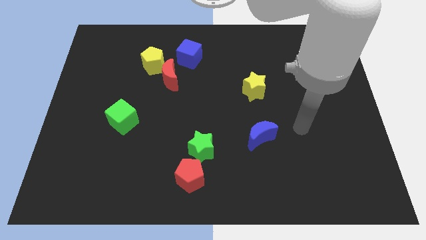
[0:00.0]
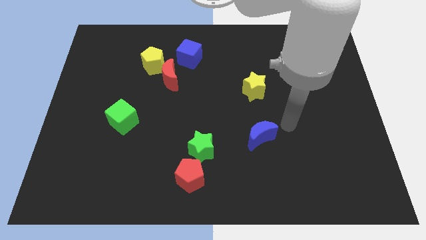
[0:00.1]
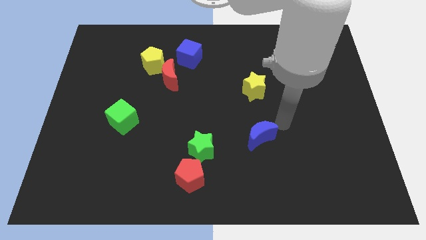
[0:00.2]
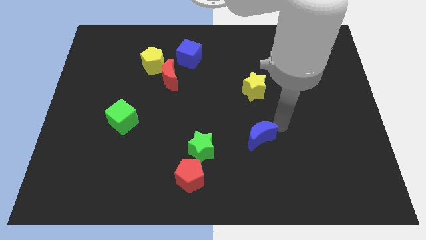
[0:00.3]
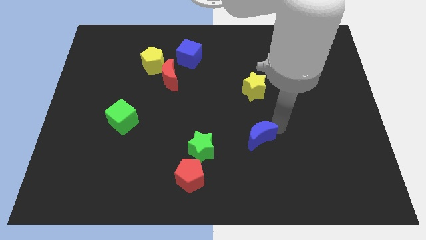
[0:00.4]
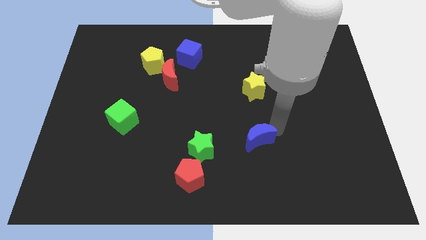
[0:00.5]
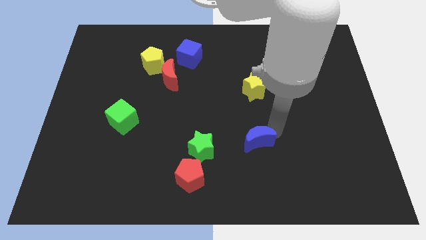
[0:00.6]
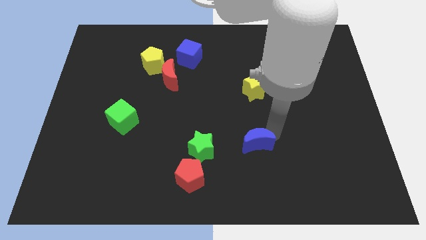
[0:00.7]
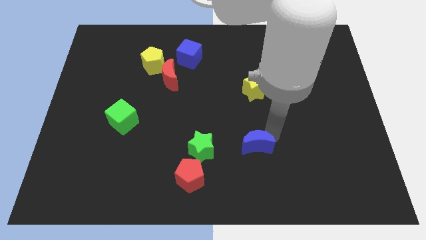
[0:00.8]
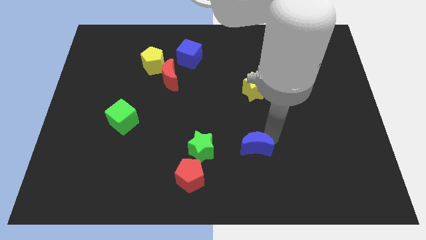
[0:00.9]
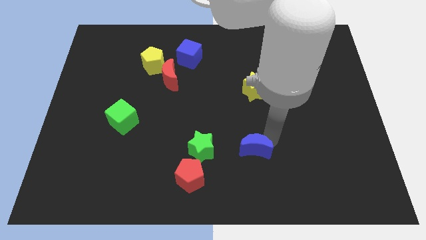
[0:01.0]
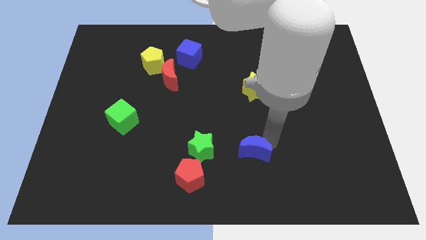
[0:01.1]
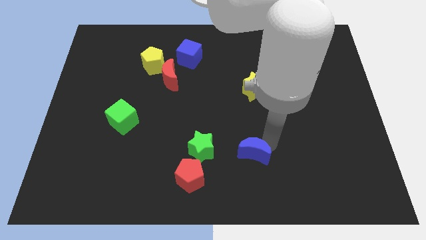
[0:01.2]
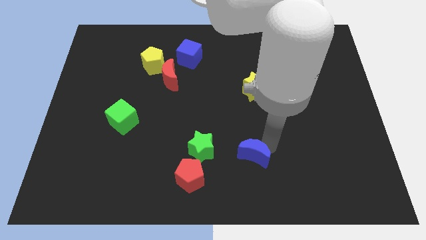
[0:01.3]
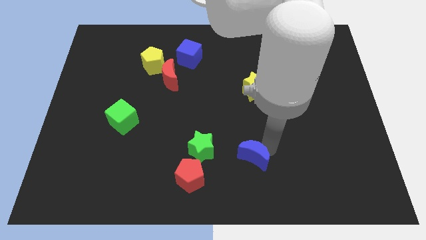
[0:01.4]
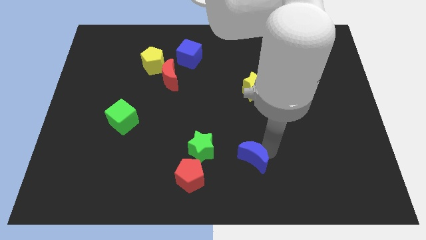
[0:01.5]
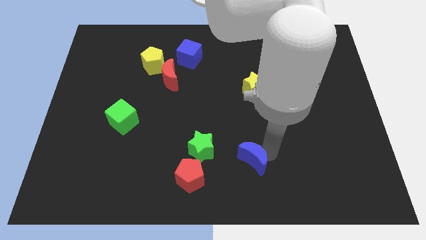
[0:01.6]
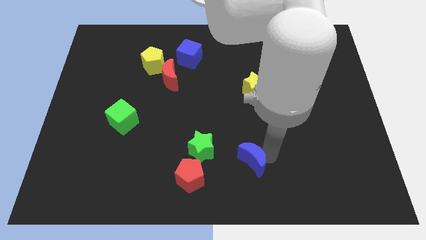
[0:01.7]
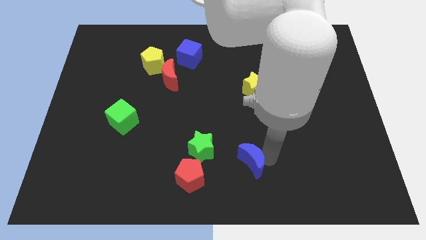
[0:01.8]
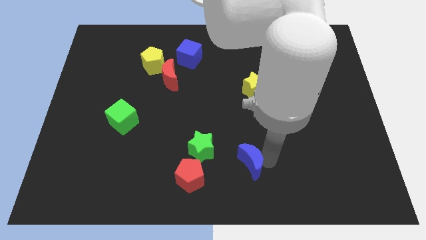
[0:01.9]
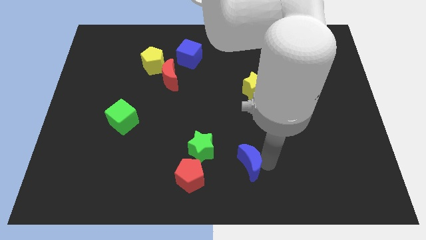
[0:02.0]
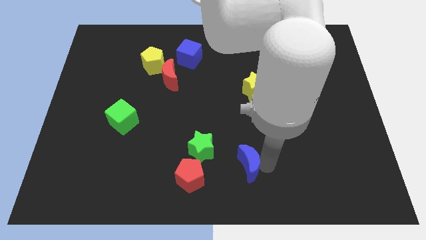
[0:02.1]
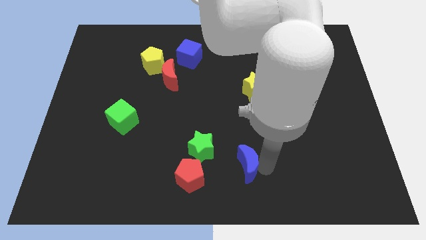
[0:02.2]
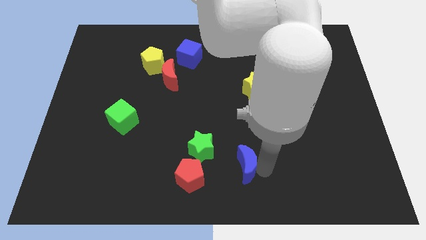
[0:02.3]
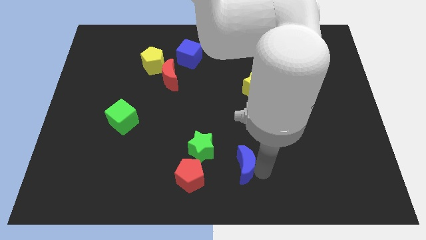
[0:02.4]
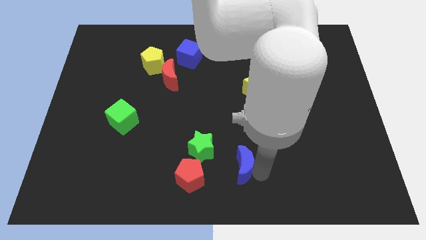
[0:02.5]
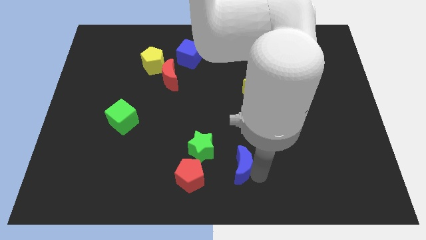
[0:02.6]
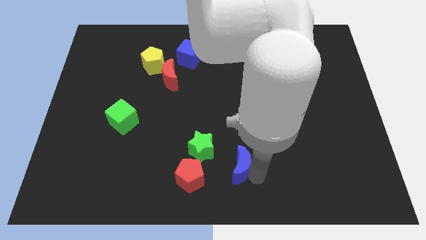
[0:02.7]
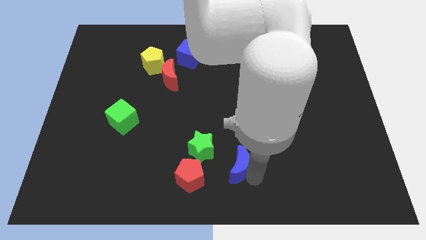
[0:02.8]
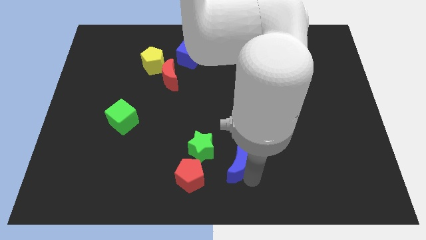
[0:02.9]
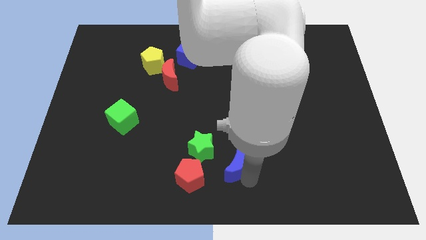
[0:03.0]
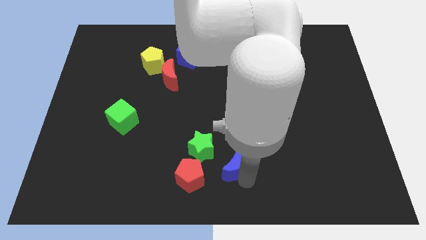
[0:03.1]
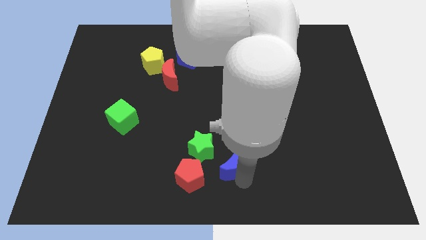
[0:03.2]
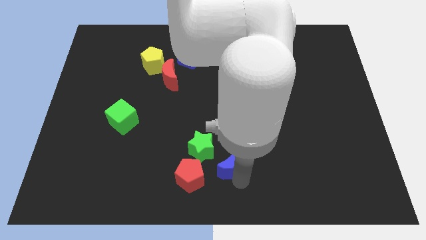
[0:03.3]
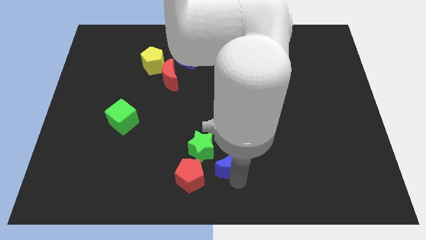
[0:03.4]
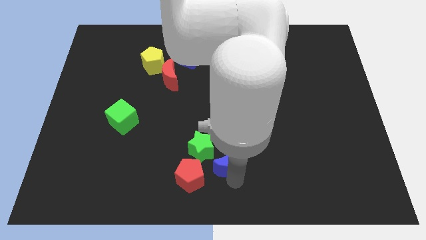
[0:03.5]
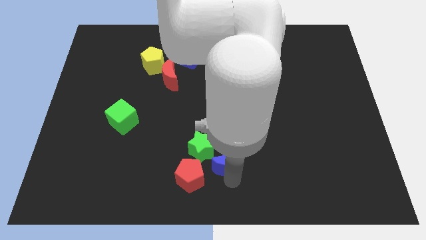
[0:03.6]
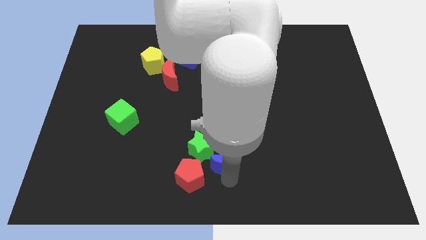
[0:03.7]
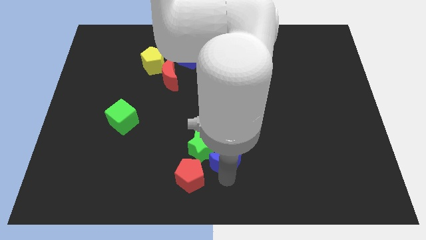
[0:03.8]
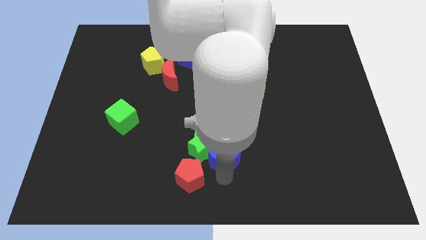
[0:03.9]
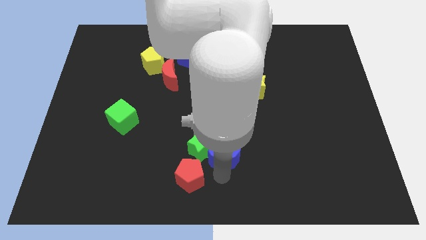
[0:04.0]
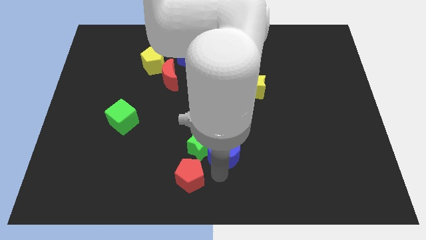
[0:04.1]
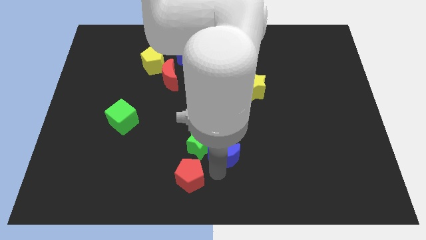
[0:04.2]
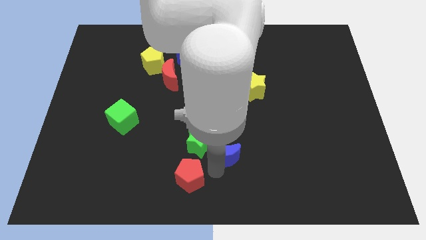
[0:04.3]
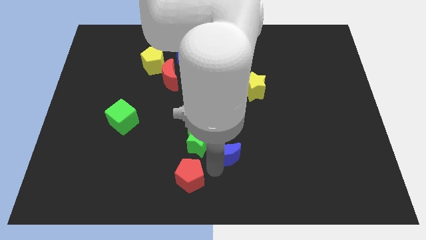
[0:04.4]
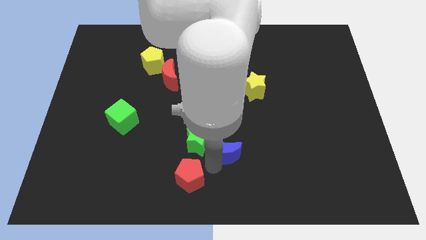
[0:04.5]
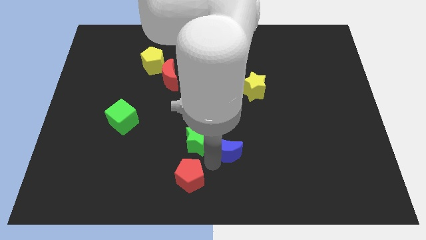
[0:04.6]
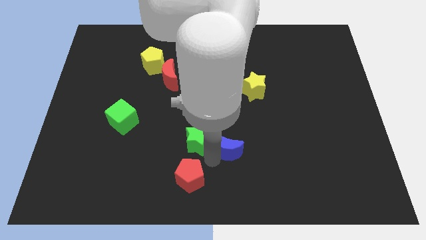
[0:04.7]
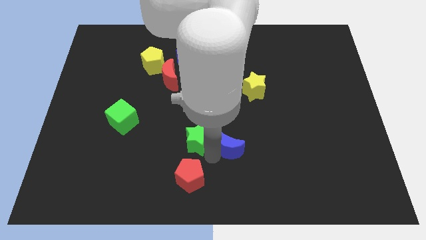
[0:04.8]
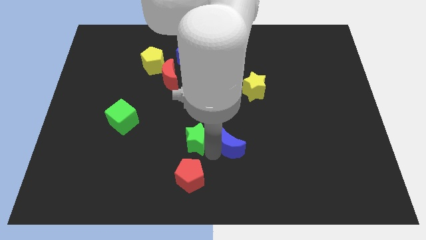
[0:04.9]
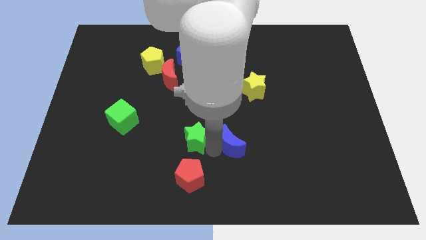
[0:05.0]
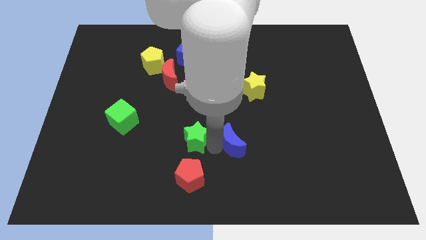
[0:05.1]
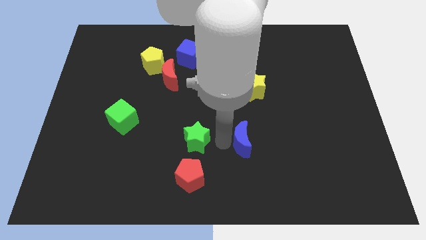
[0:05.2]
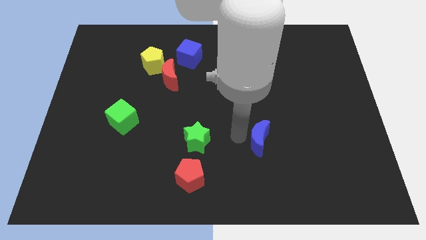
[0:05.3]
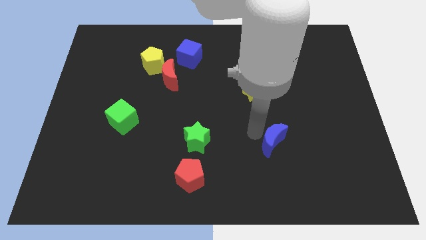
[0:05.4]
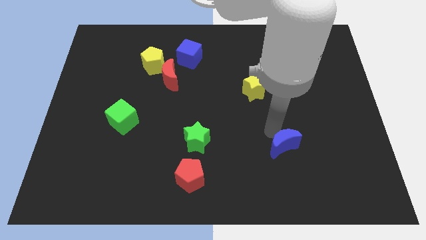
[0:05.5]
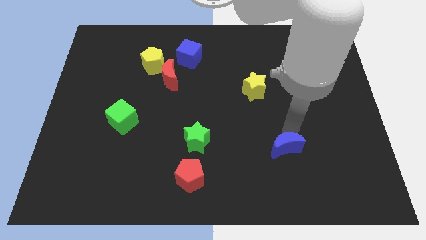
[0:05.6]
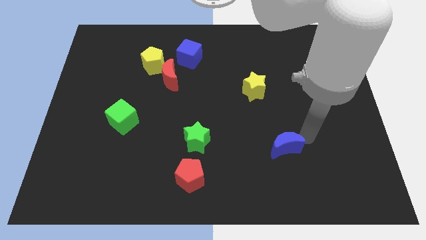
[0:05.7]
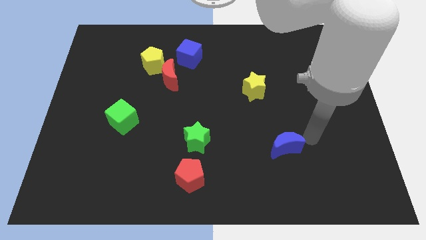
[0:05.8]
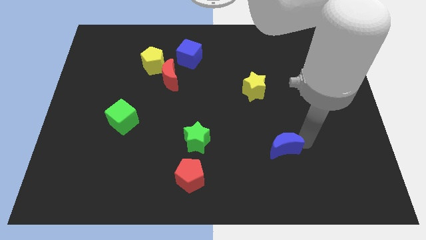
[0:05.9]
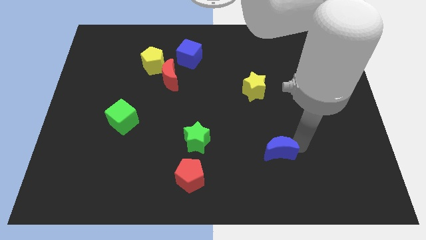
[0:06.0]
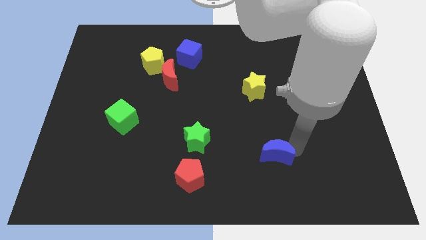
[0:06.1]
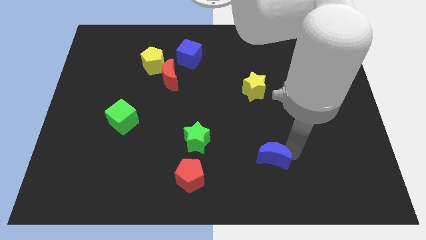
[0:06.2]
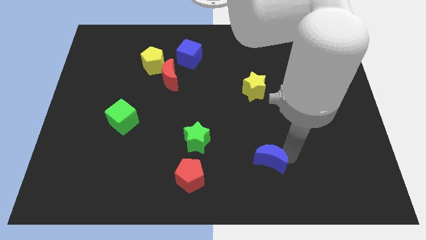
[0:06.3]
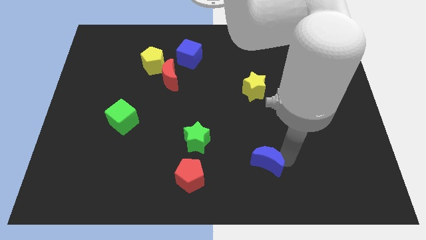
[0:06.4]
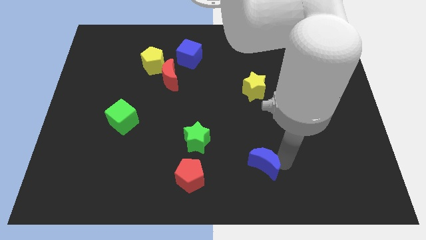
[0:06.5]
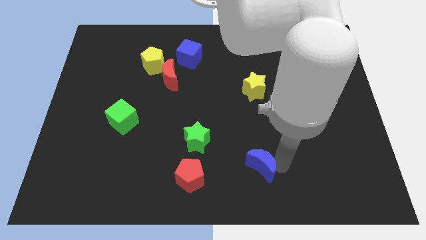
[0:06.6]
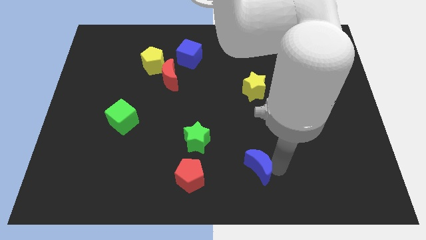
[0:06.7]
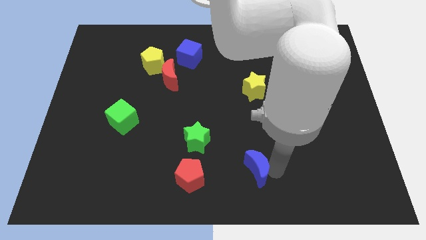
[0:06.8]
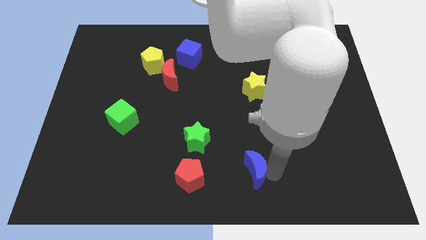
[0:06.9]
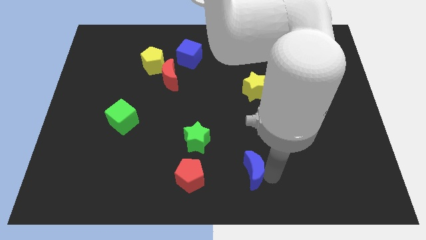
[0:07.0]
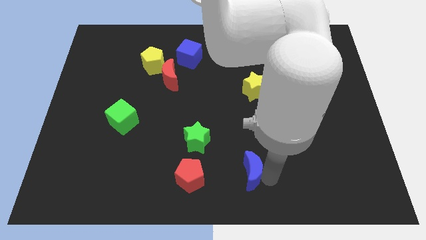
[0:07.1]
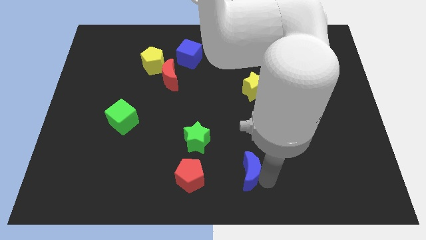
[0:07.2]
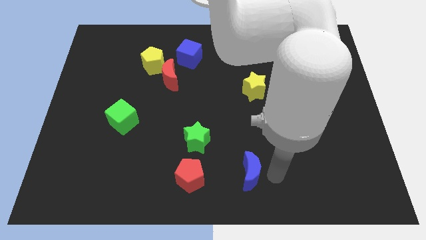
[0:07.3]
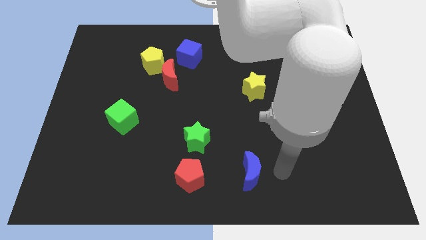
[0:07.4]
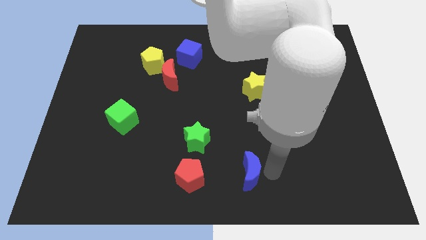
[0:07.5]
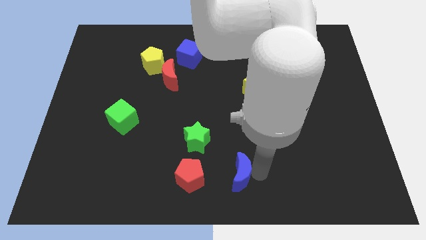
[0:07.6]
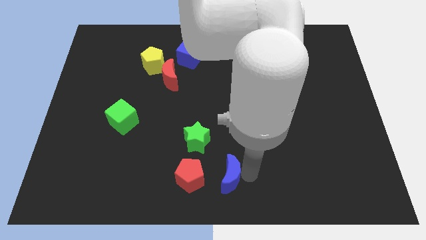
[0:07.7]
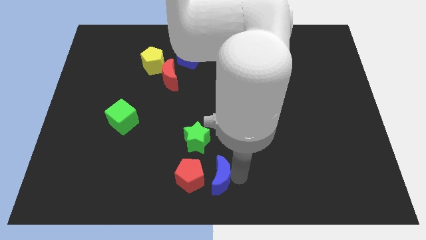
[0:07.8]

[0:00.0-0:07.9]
put the blue moon to the red pentagon
